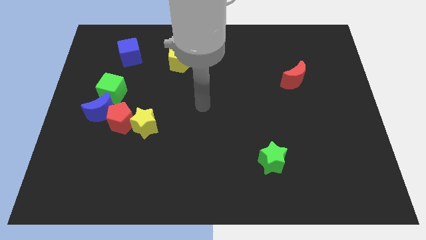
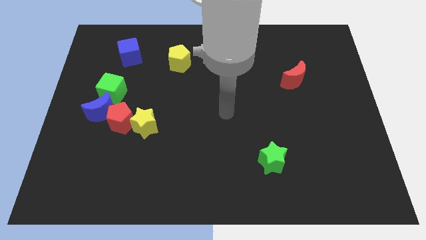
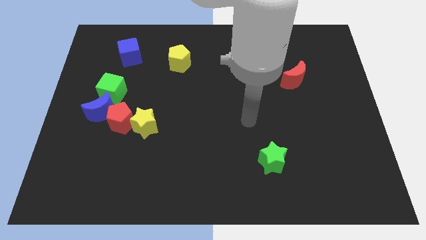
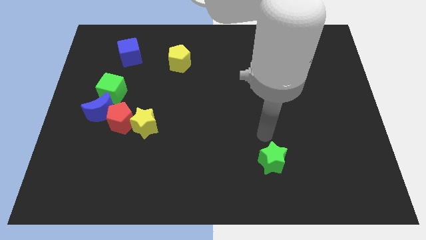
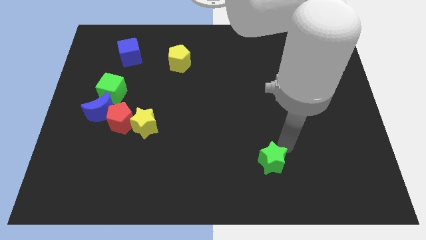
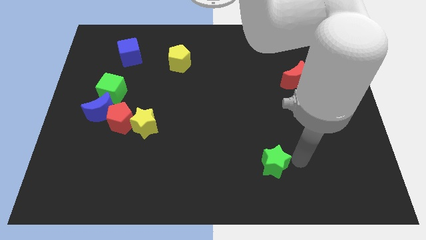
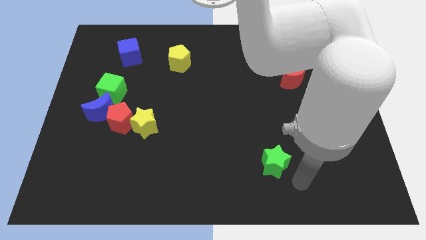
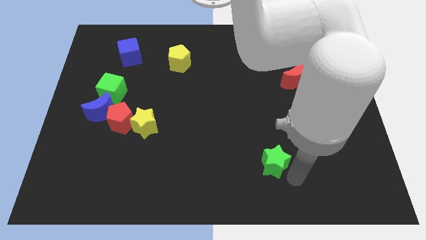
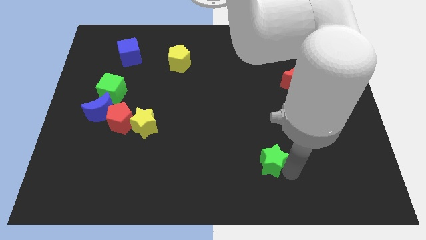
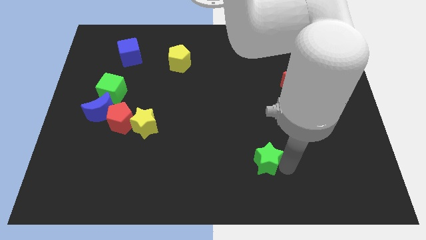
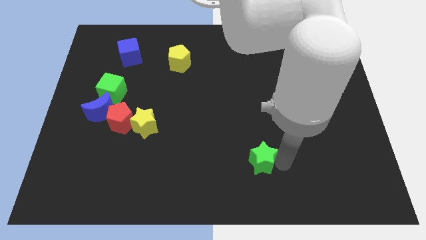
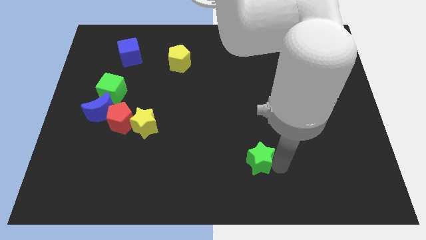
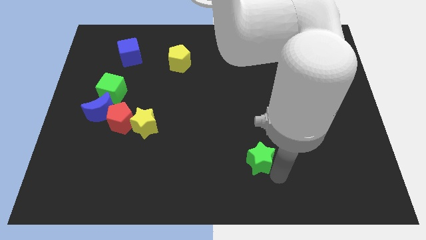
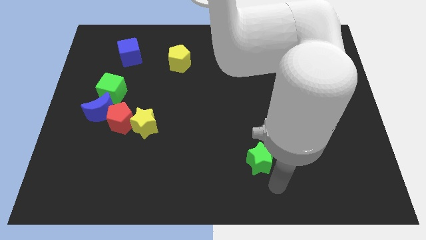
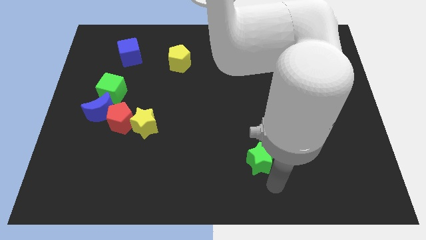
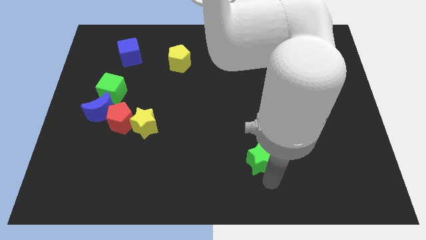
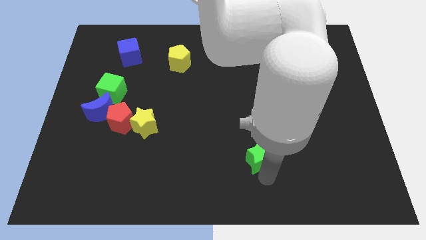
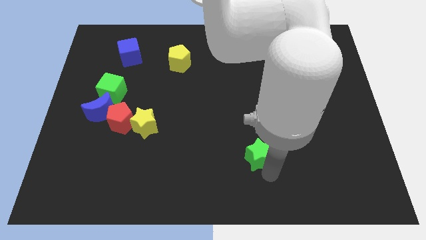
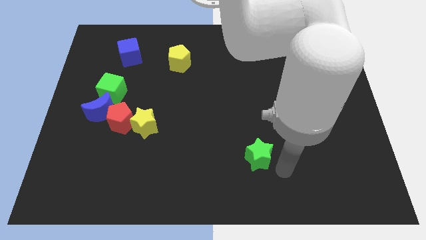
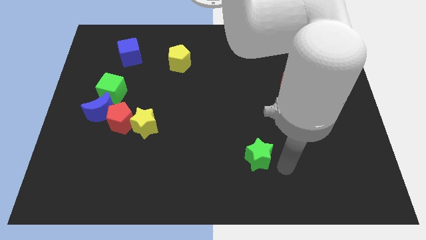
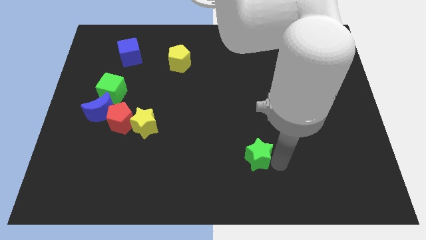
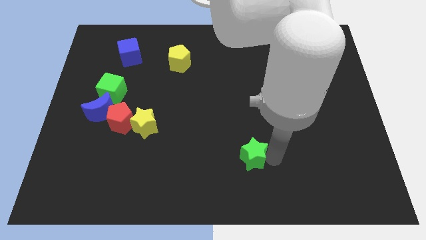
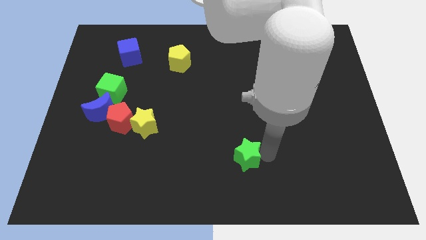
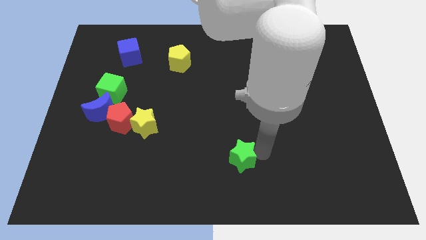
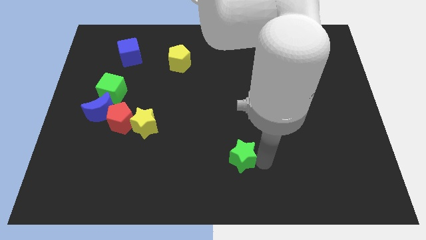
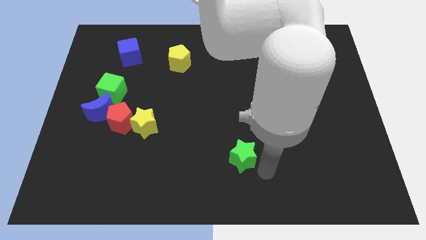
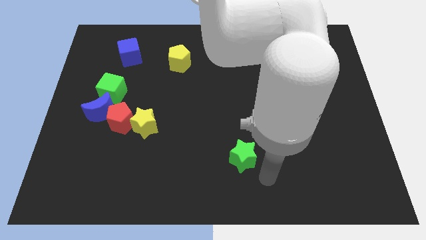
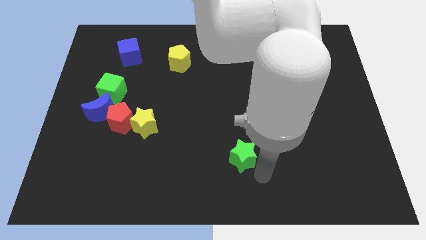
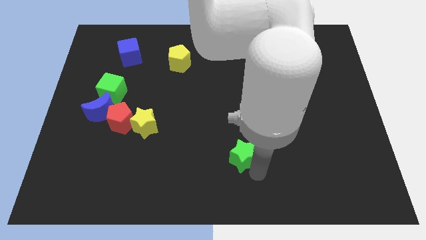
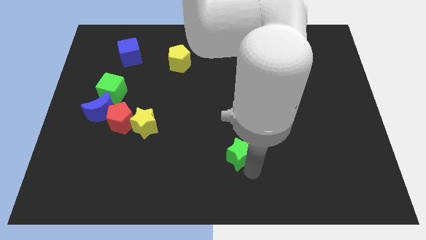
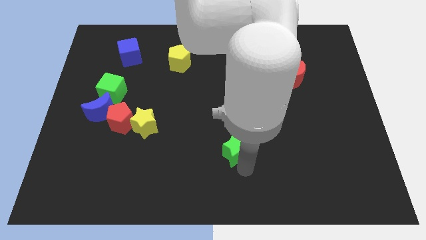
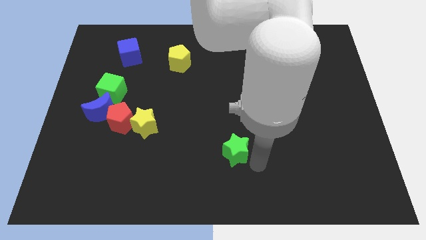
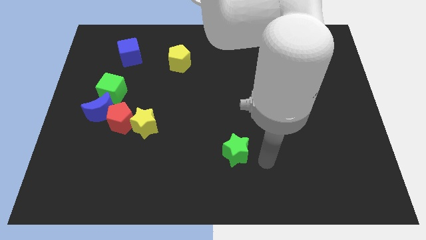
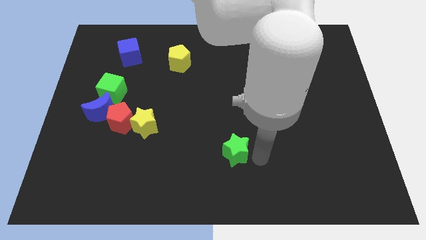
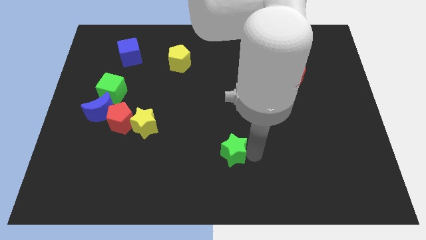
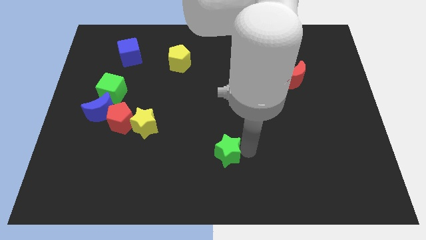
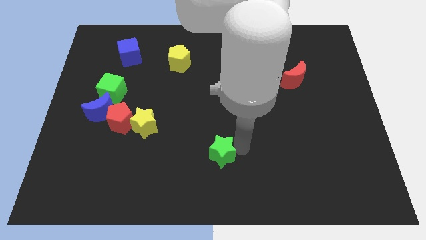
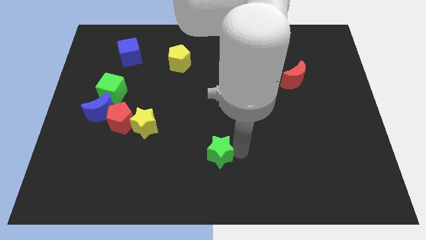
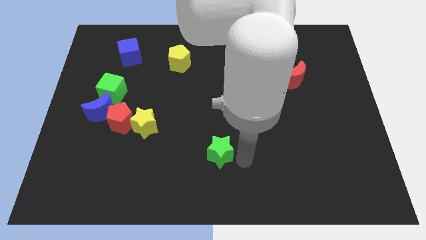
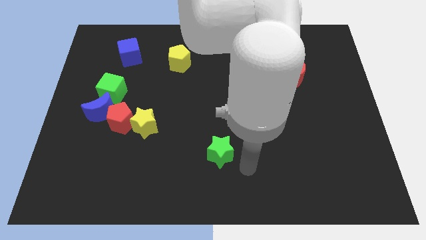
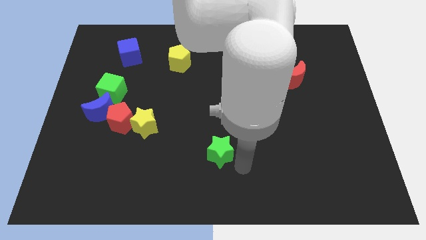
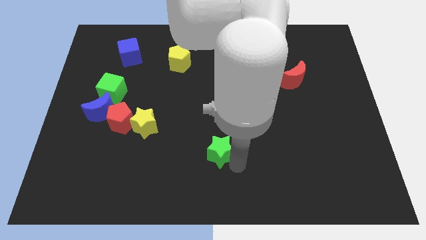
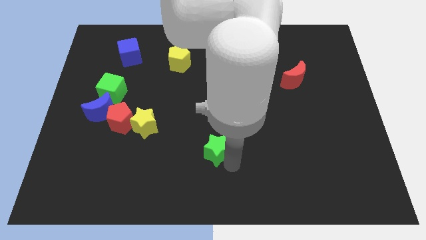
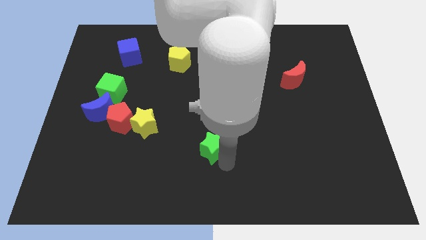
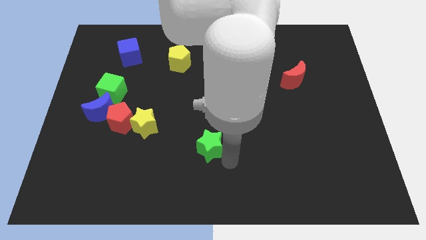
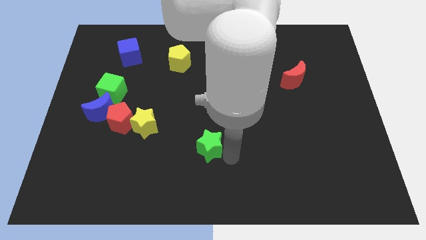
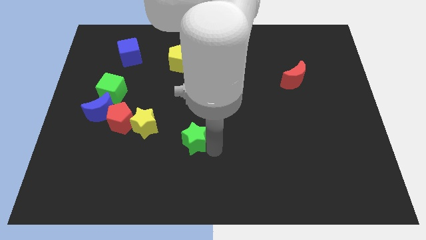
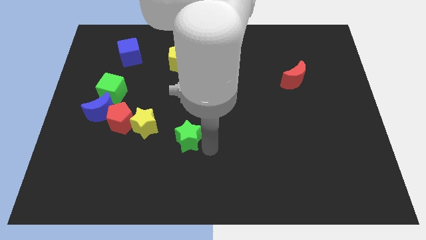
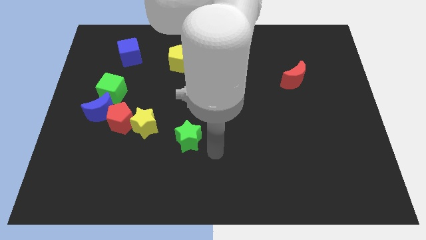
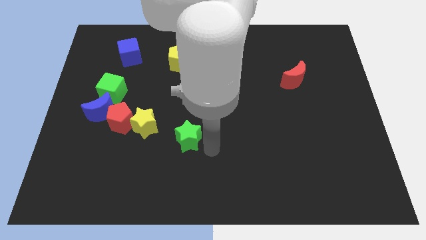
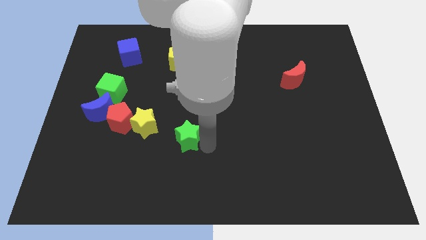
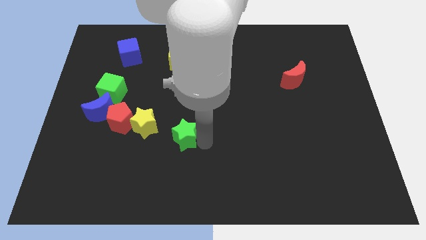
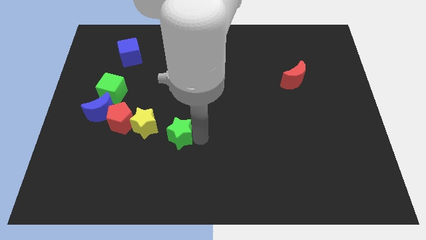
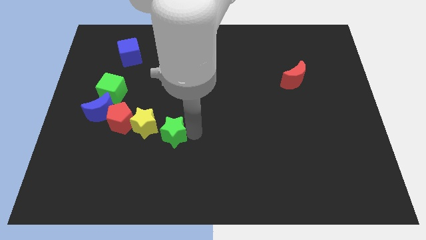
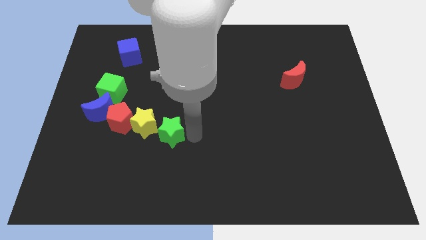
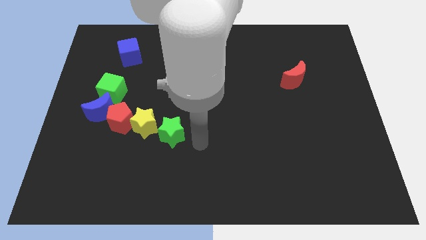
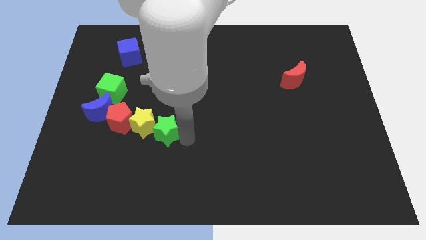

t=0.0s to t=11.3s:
push the green star to the yellow star

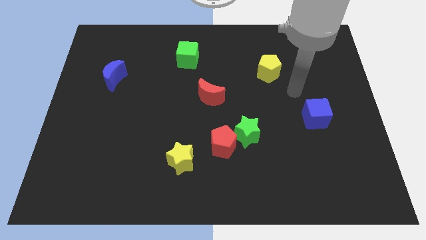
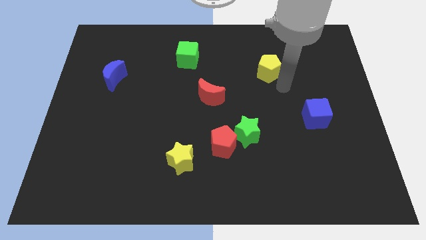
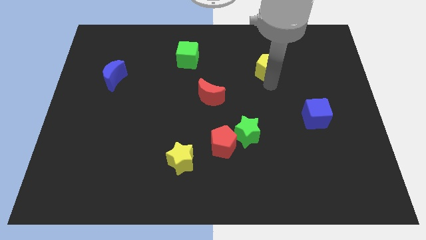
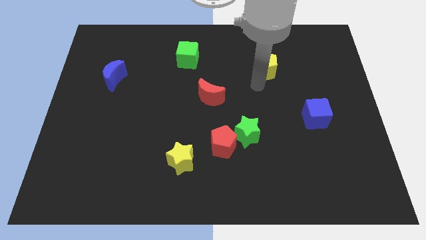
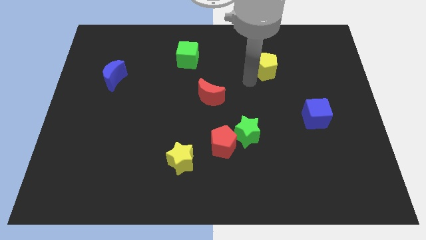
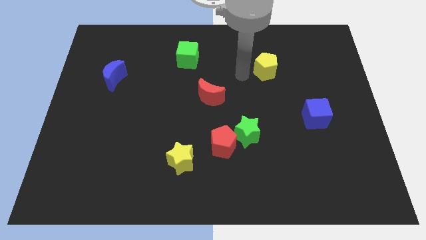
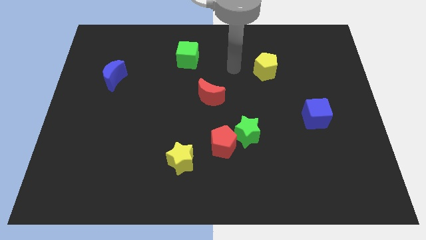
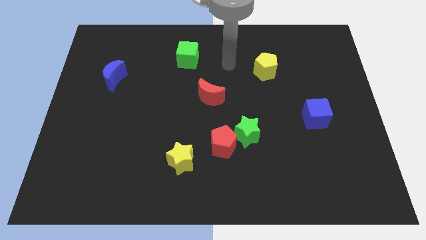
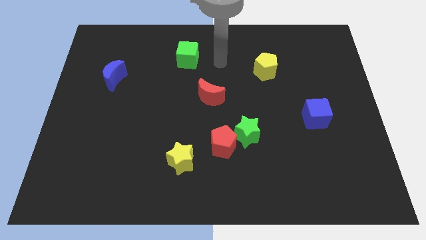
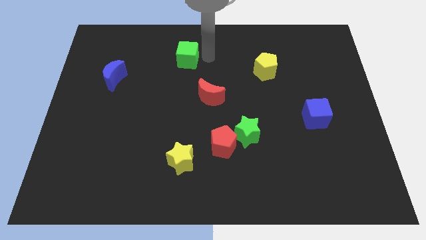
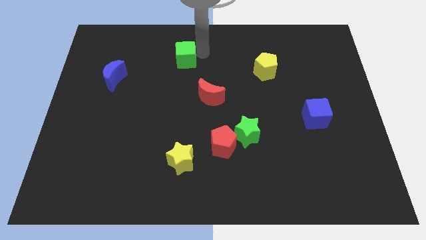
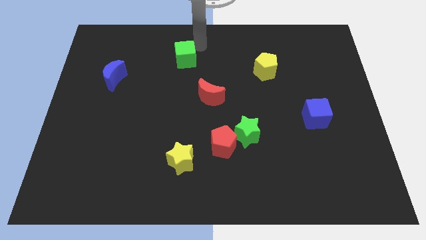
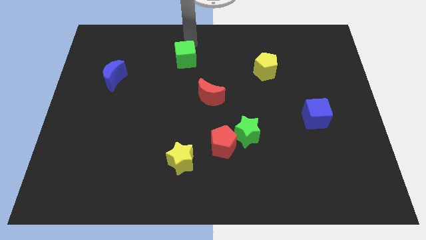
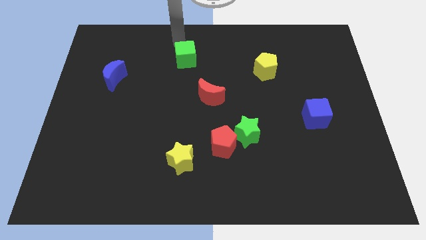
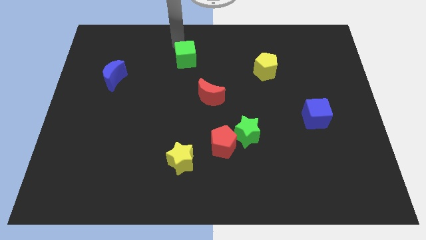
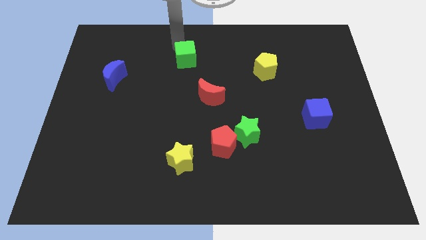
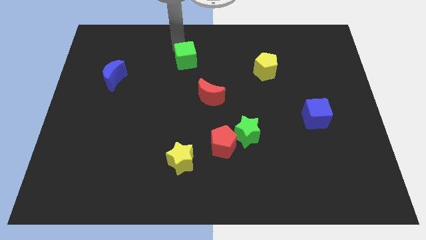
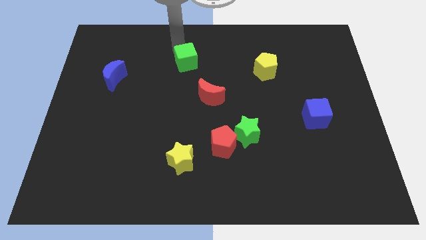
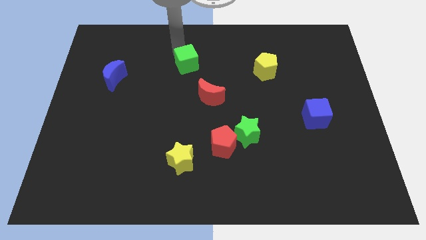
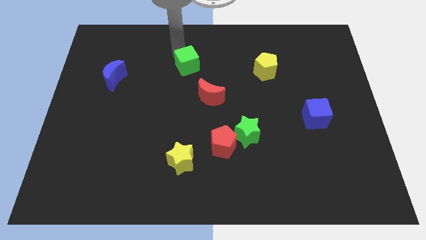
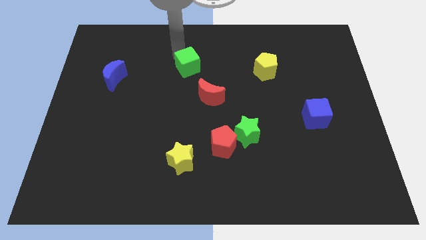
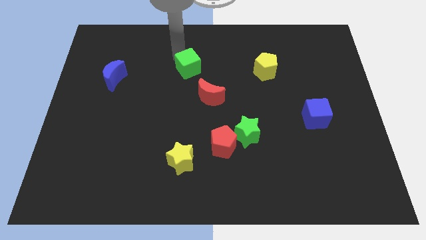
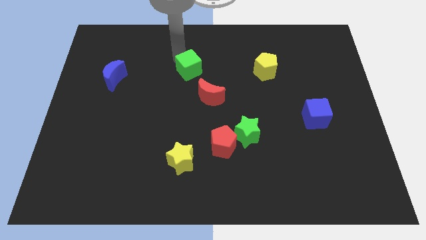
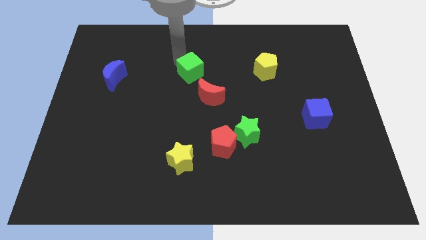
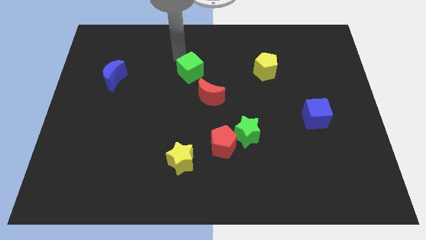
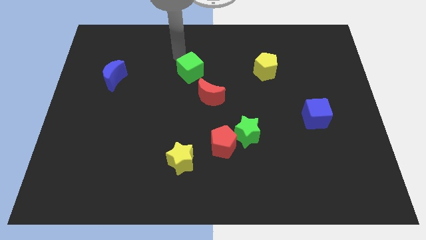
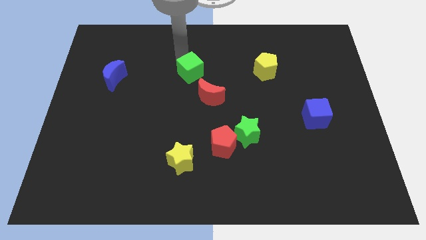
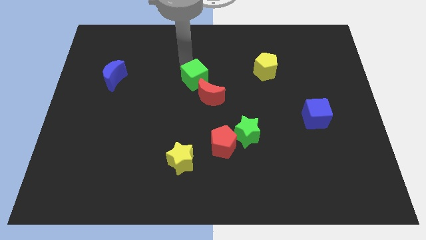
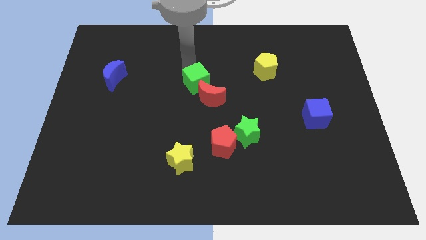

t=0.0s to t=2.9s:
move the green cube to the red moon
